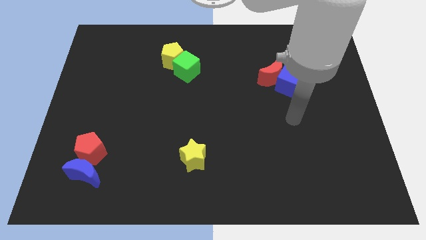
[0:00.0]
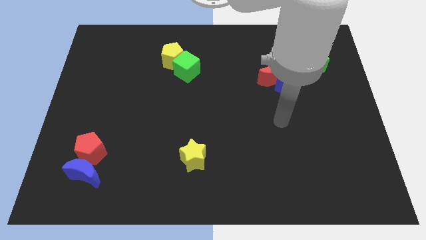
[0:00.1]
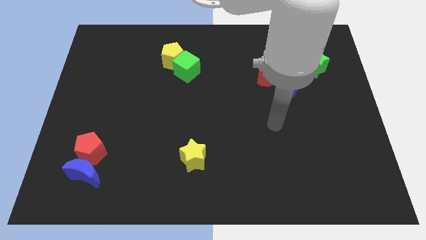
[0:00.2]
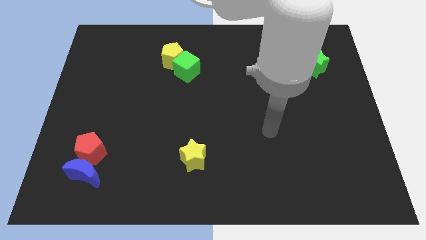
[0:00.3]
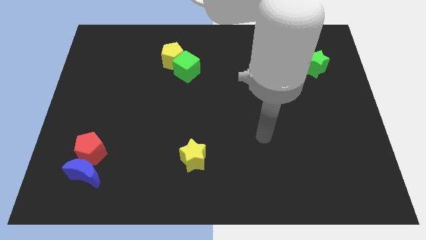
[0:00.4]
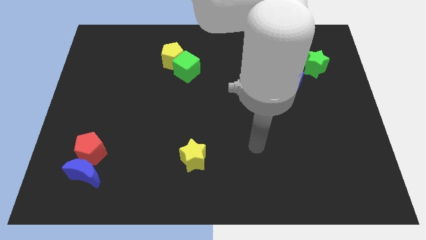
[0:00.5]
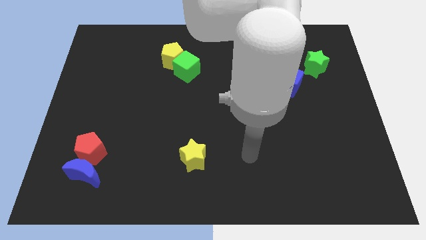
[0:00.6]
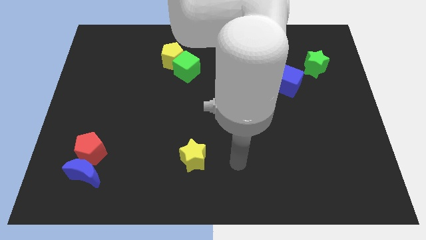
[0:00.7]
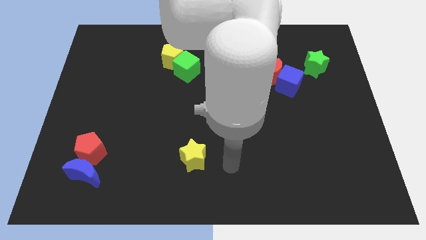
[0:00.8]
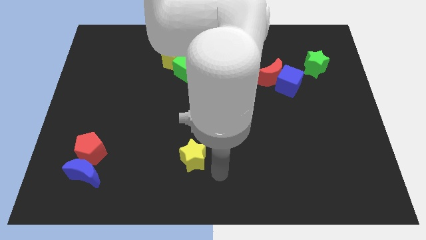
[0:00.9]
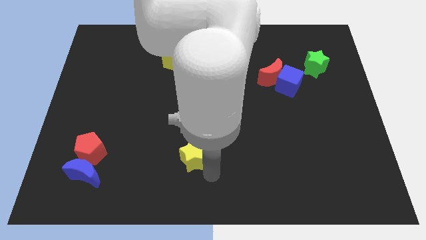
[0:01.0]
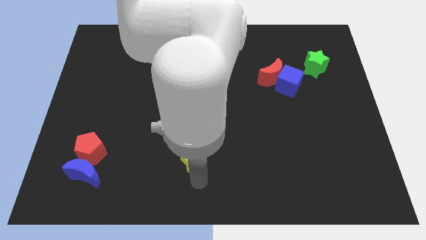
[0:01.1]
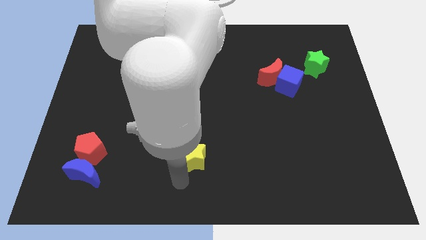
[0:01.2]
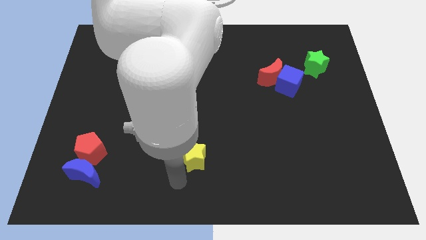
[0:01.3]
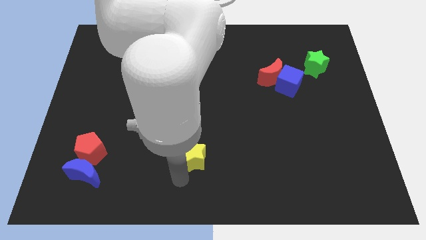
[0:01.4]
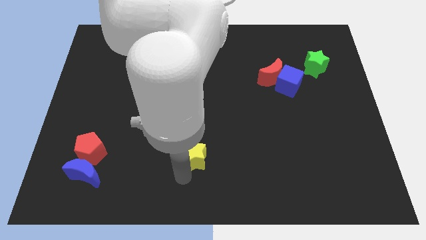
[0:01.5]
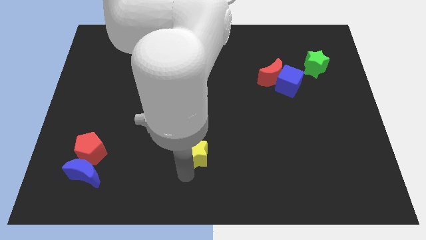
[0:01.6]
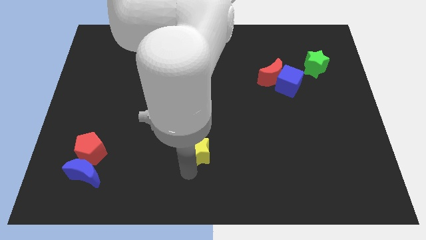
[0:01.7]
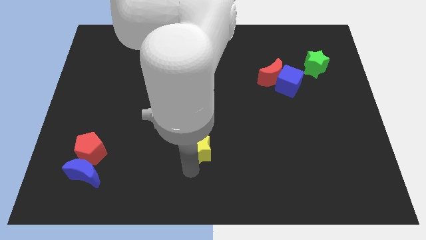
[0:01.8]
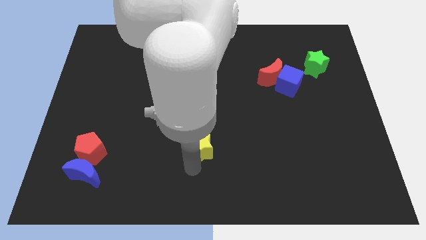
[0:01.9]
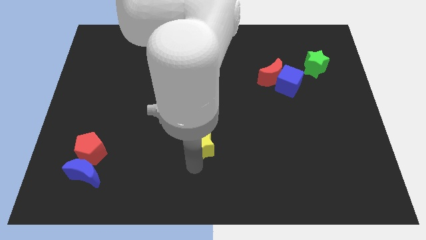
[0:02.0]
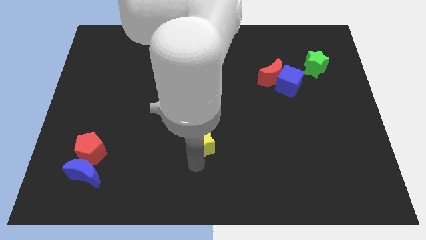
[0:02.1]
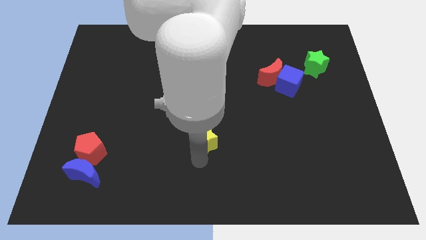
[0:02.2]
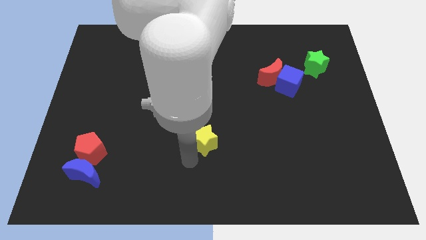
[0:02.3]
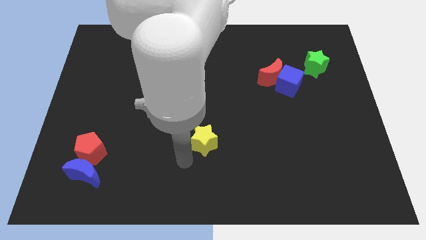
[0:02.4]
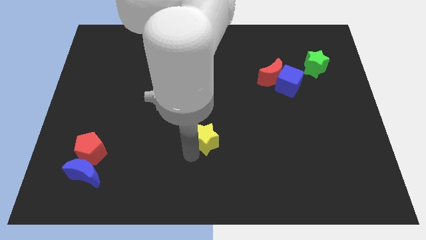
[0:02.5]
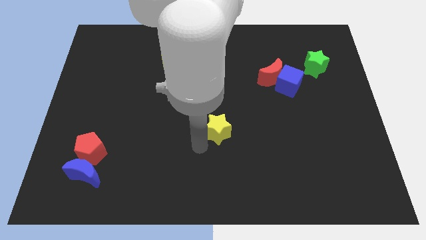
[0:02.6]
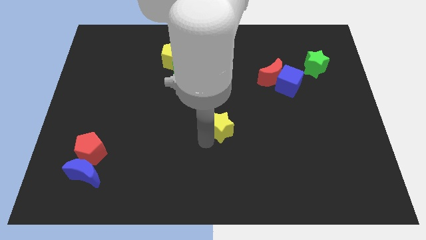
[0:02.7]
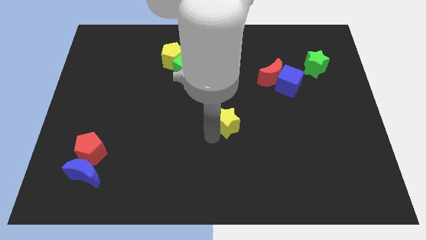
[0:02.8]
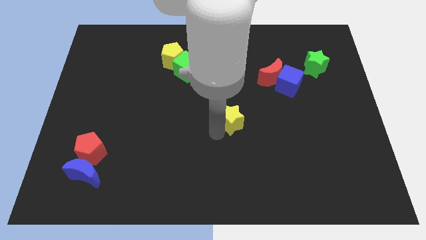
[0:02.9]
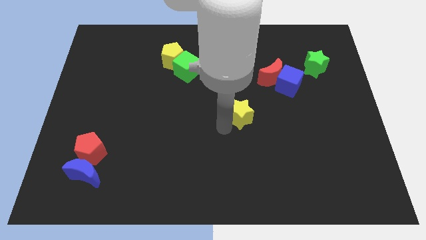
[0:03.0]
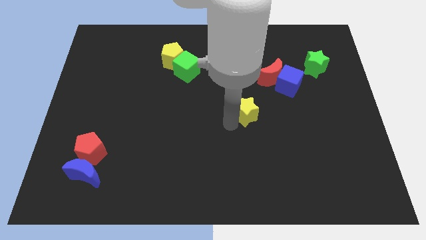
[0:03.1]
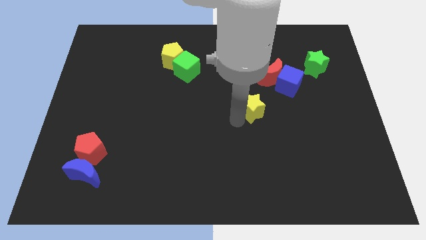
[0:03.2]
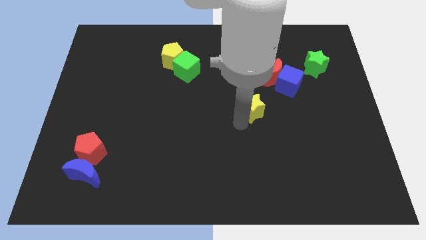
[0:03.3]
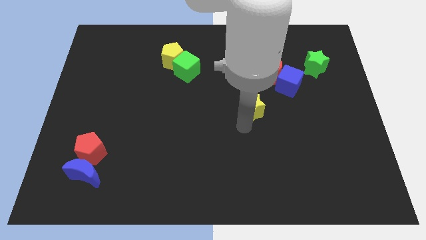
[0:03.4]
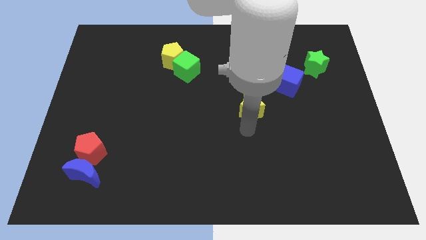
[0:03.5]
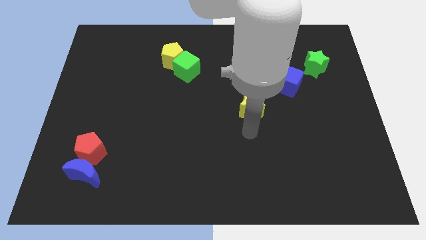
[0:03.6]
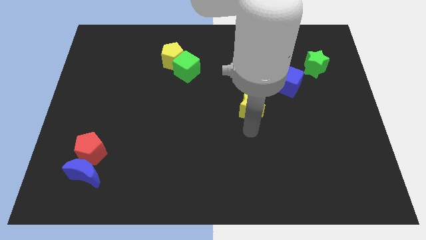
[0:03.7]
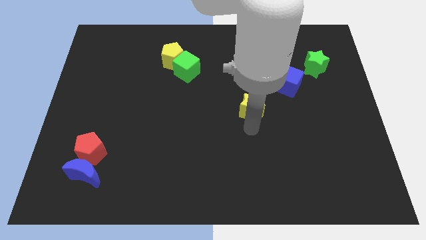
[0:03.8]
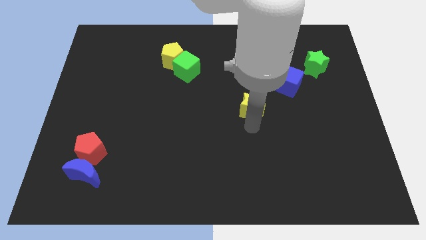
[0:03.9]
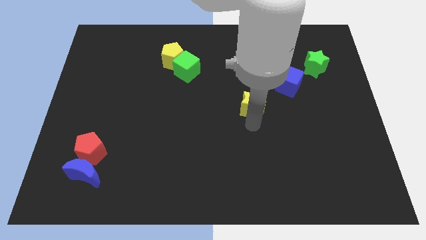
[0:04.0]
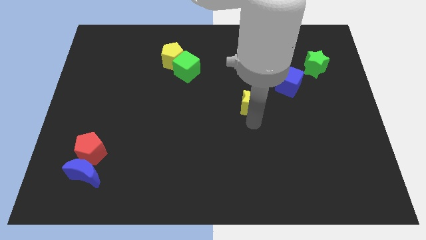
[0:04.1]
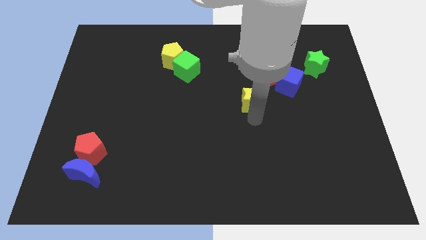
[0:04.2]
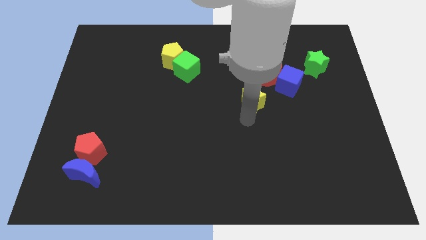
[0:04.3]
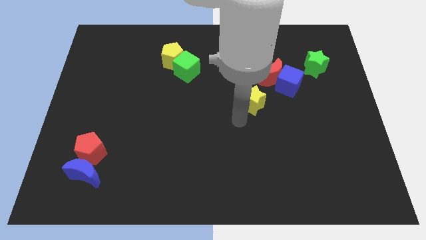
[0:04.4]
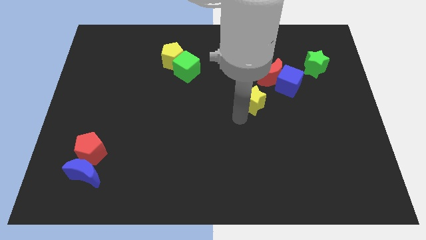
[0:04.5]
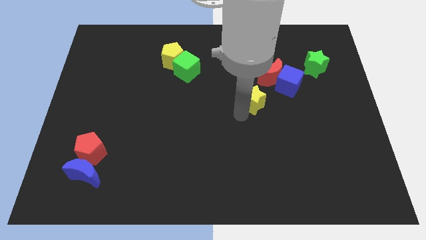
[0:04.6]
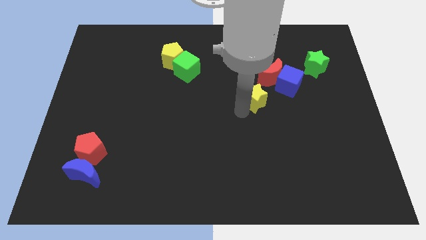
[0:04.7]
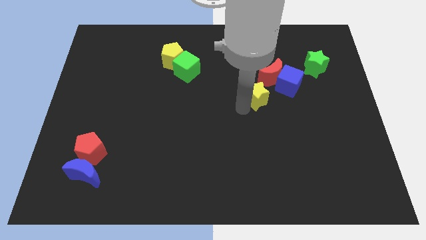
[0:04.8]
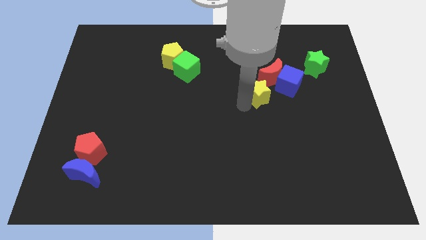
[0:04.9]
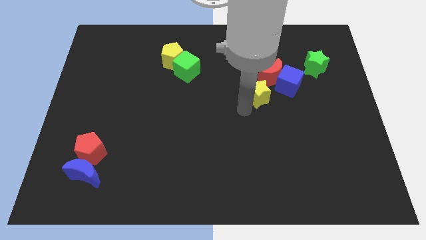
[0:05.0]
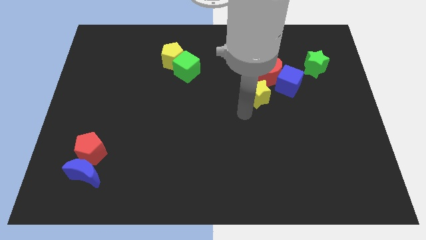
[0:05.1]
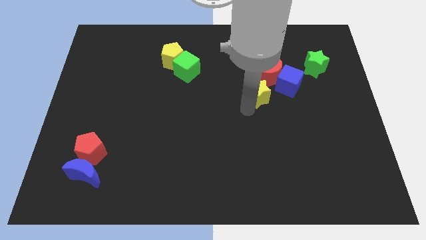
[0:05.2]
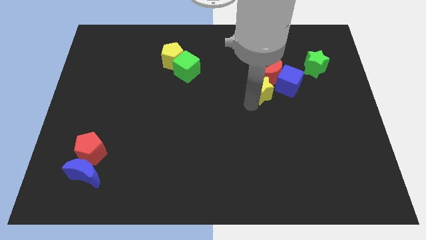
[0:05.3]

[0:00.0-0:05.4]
push the yellow star towards the red moon
